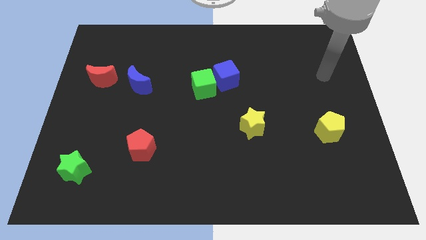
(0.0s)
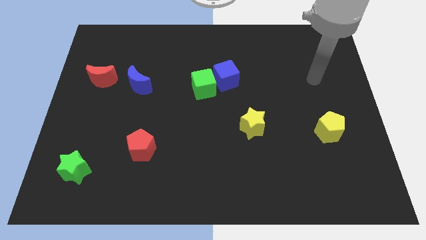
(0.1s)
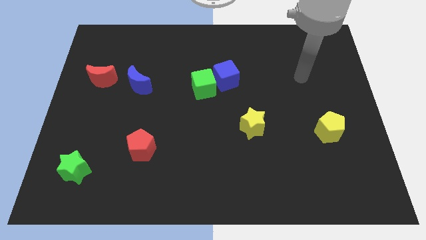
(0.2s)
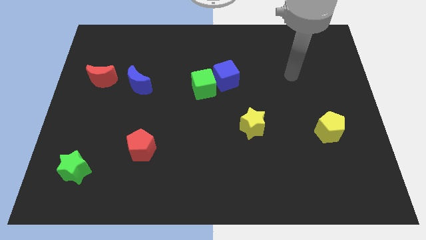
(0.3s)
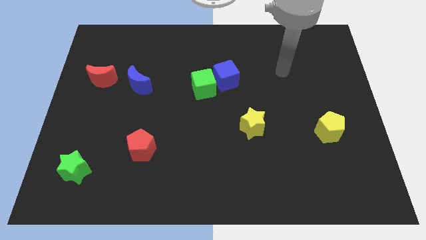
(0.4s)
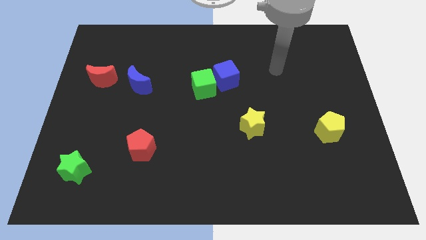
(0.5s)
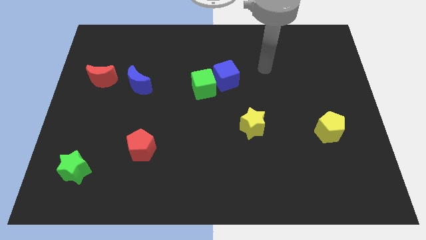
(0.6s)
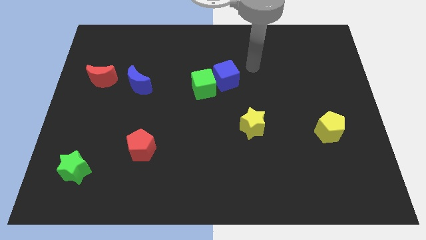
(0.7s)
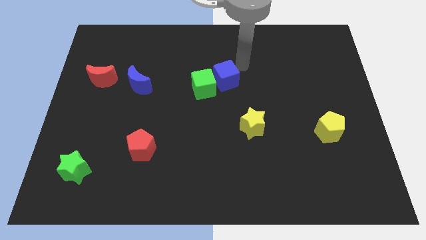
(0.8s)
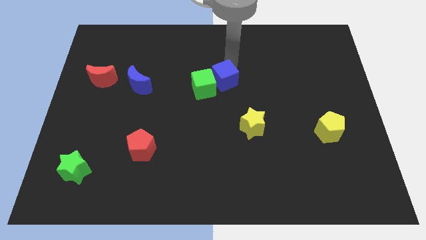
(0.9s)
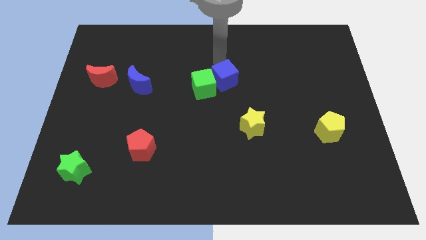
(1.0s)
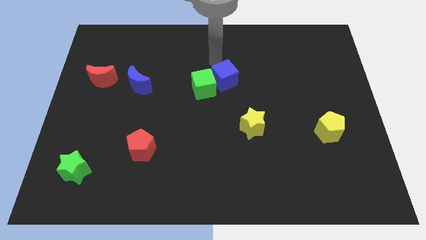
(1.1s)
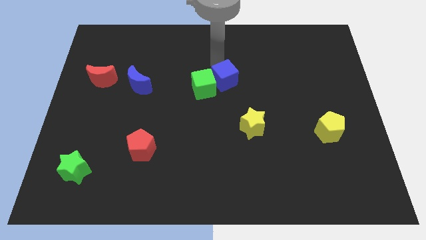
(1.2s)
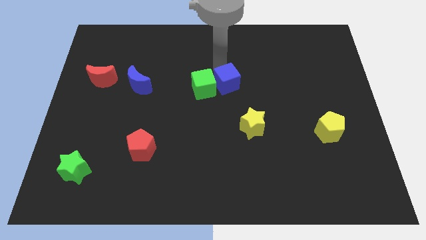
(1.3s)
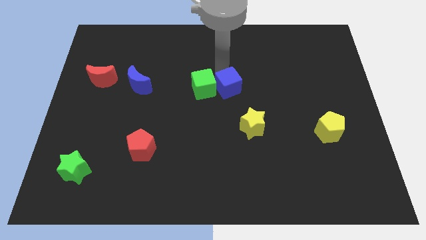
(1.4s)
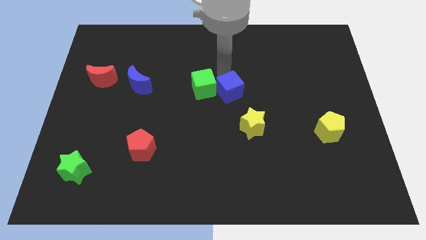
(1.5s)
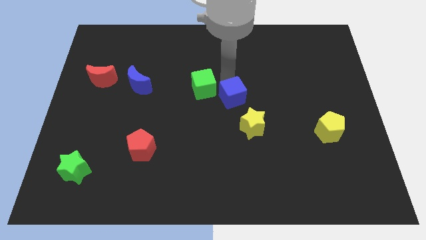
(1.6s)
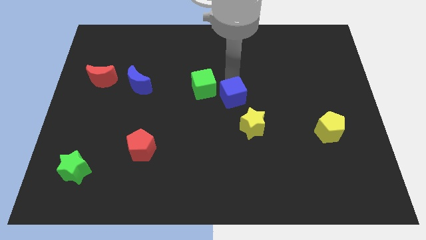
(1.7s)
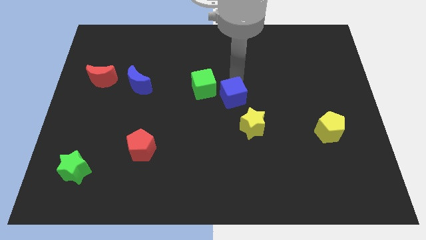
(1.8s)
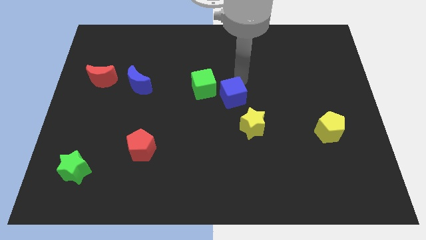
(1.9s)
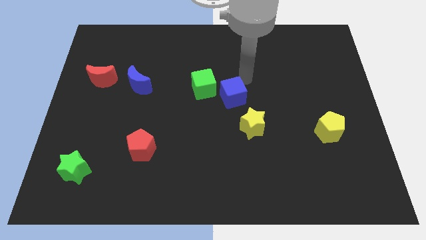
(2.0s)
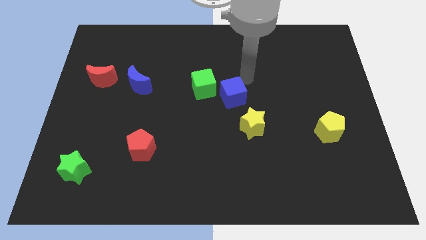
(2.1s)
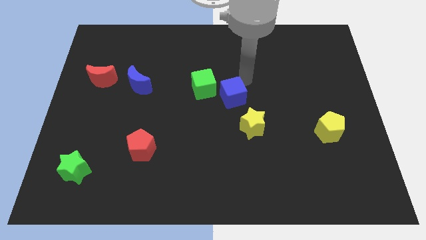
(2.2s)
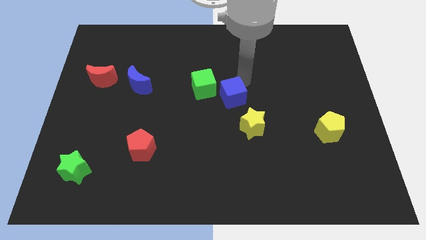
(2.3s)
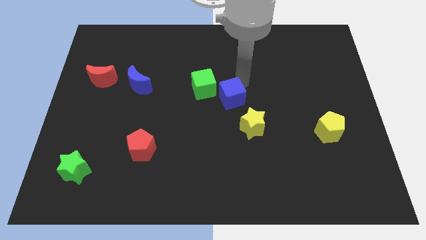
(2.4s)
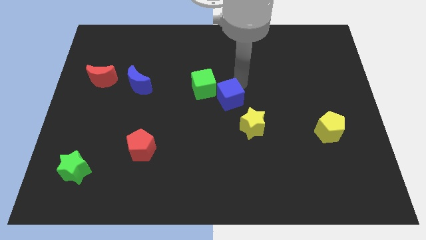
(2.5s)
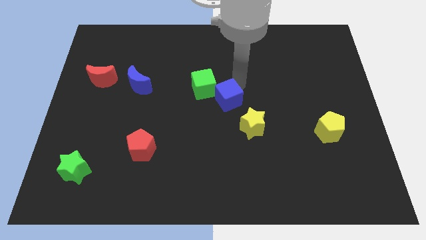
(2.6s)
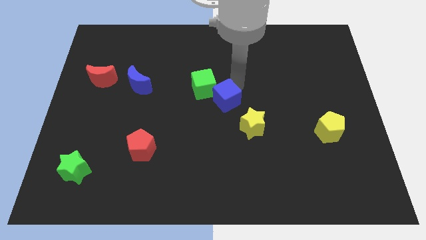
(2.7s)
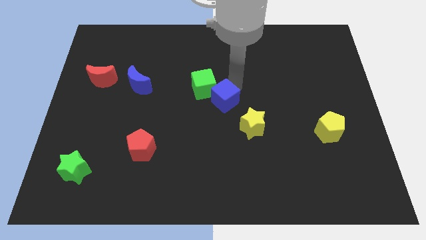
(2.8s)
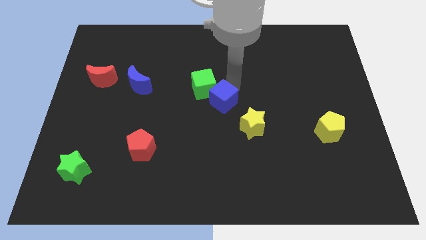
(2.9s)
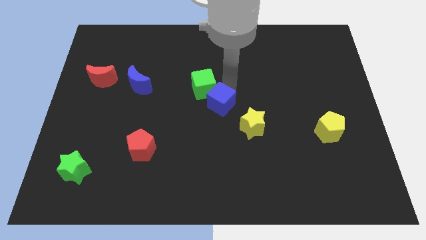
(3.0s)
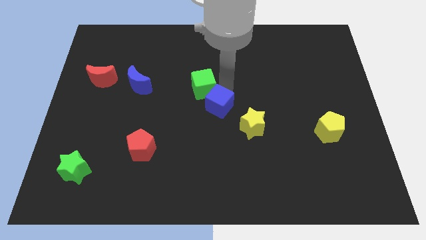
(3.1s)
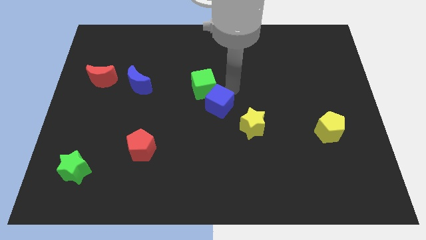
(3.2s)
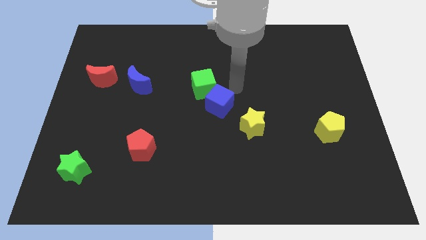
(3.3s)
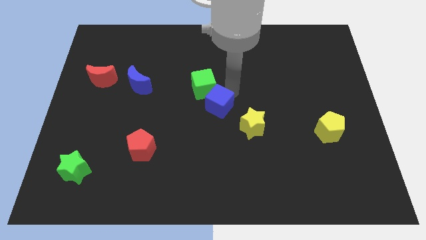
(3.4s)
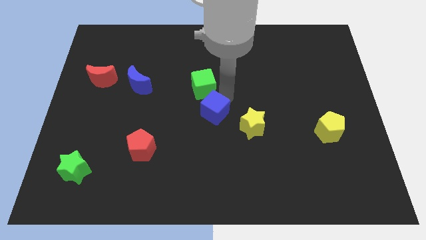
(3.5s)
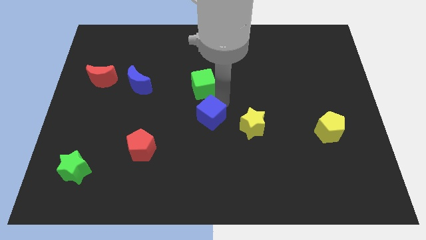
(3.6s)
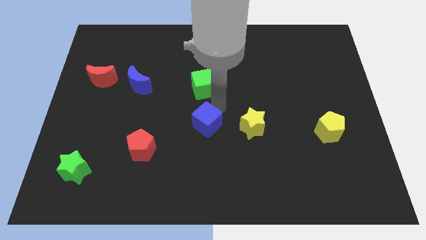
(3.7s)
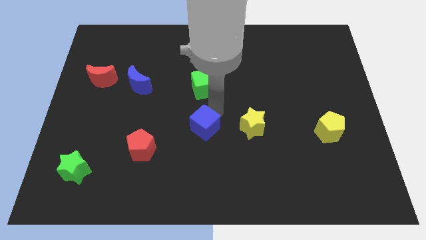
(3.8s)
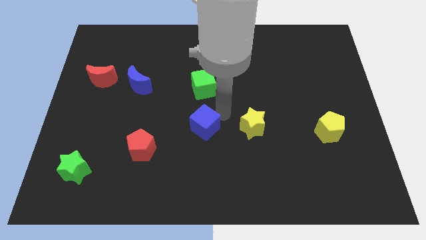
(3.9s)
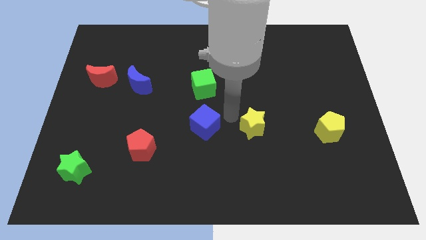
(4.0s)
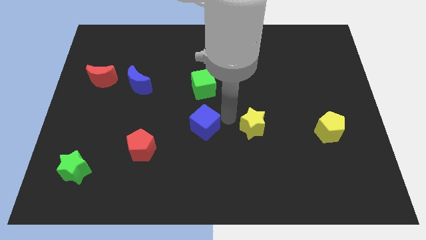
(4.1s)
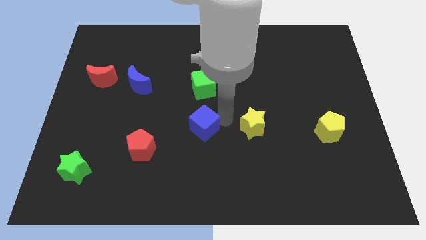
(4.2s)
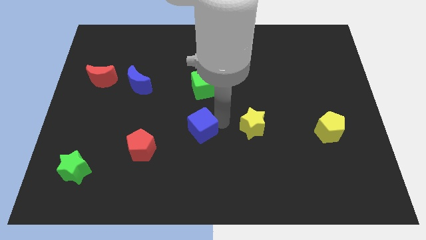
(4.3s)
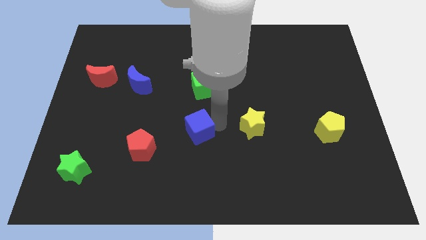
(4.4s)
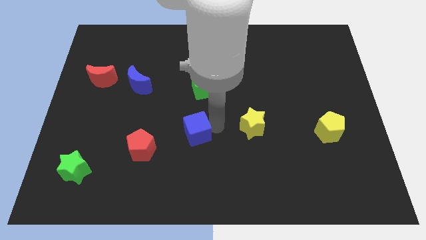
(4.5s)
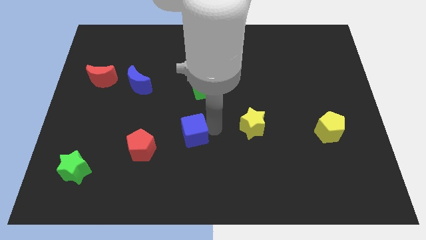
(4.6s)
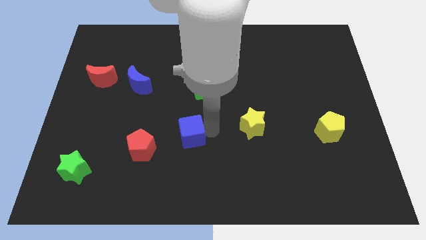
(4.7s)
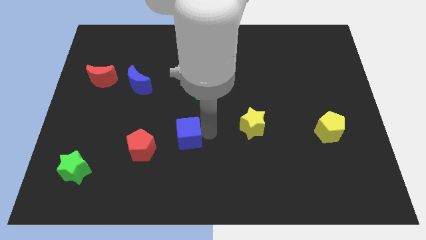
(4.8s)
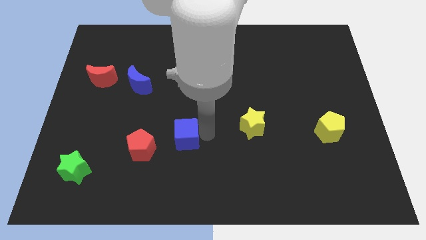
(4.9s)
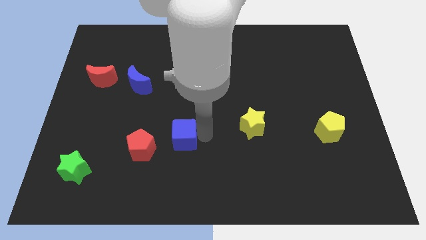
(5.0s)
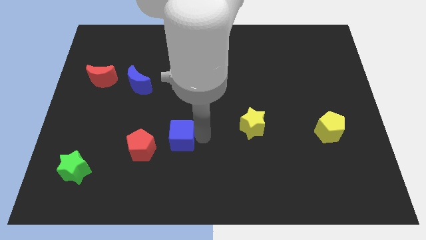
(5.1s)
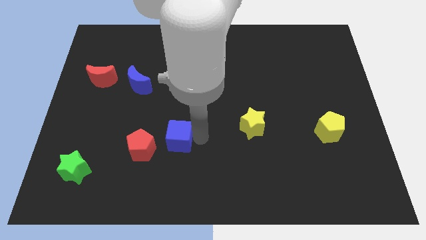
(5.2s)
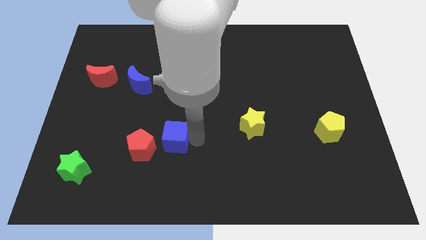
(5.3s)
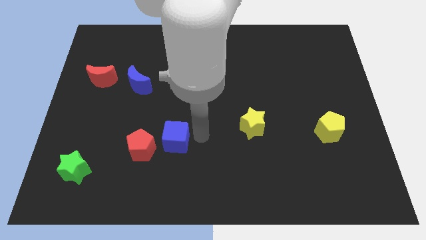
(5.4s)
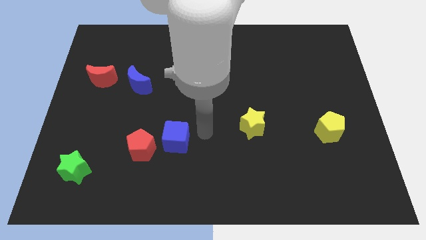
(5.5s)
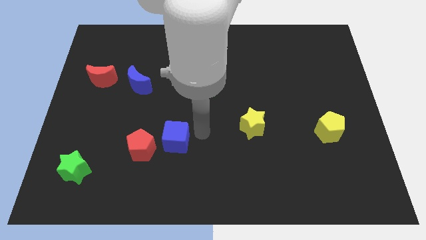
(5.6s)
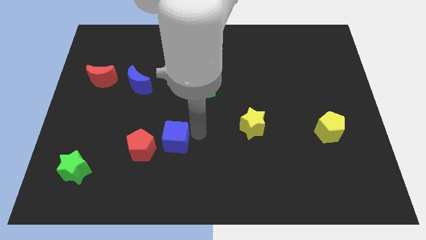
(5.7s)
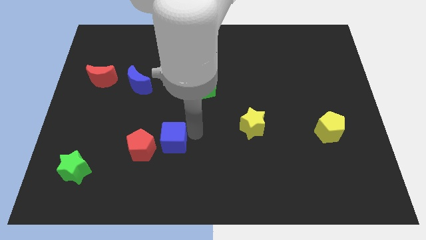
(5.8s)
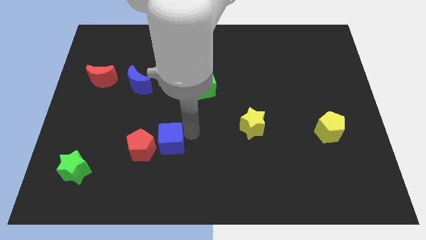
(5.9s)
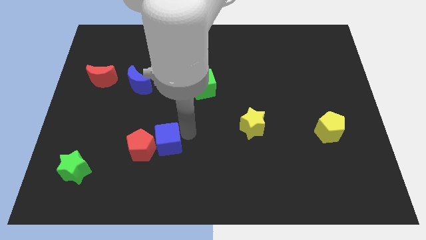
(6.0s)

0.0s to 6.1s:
put the blue cube to the red pentagon
